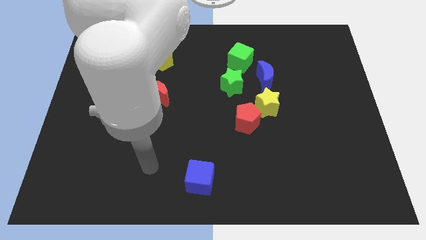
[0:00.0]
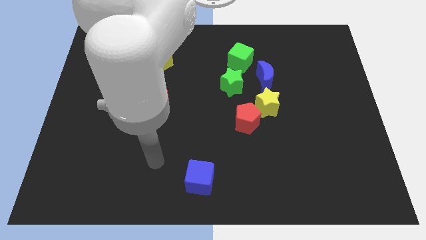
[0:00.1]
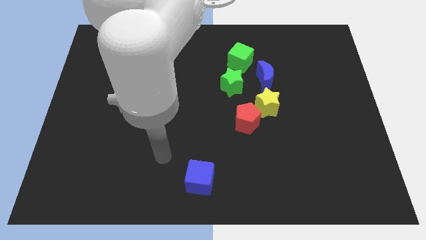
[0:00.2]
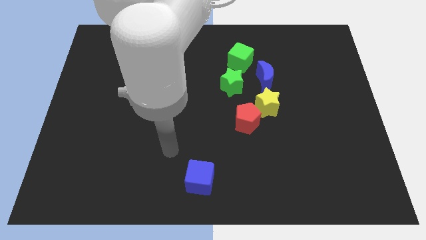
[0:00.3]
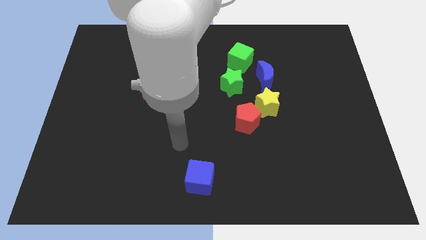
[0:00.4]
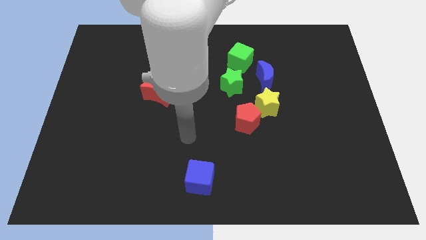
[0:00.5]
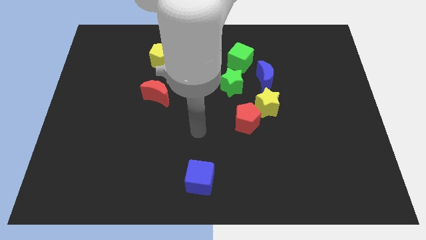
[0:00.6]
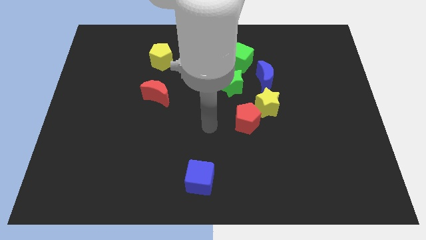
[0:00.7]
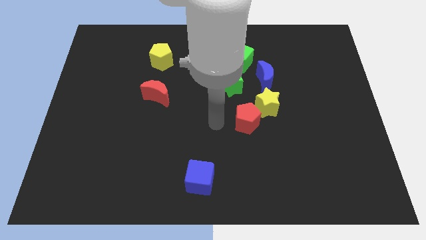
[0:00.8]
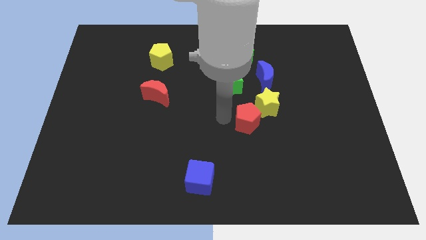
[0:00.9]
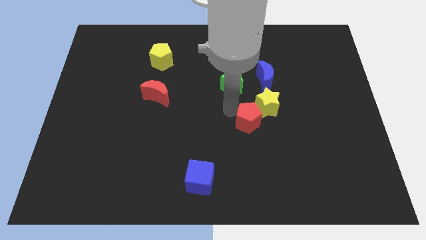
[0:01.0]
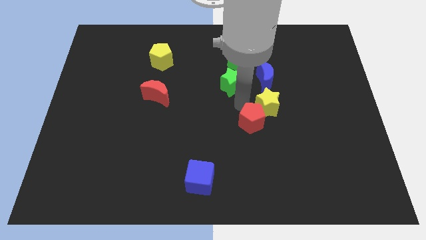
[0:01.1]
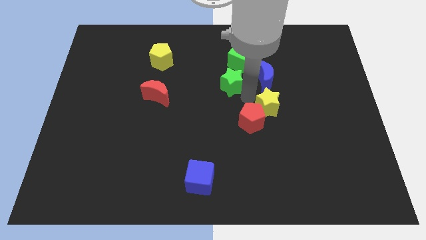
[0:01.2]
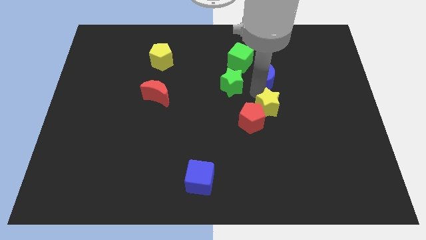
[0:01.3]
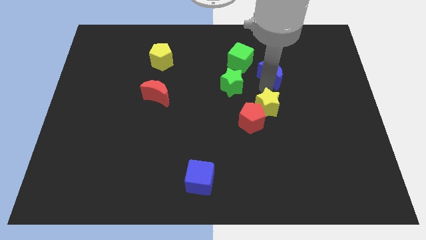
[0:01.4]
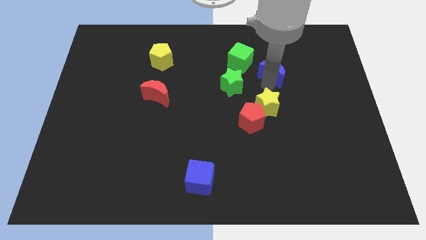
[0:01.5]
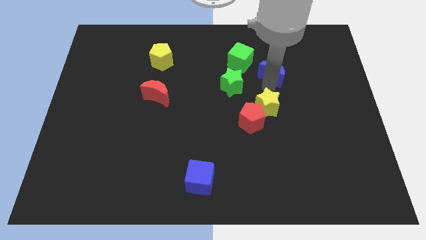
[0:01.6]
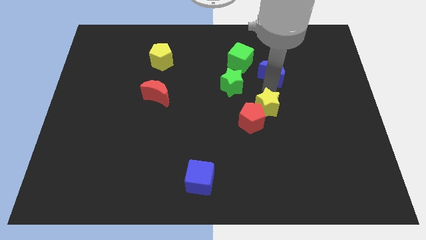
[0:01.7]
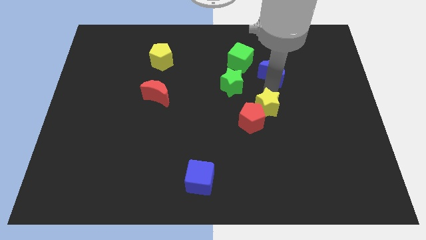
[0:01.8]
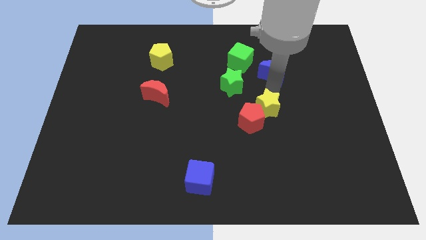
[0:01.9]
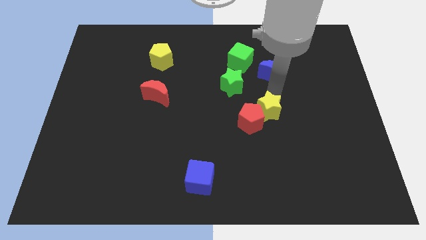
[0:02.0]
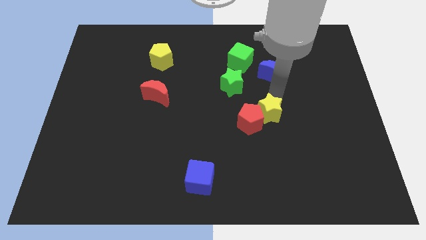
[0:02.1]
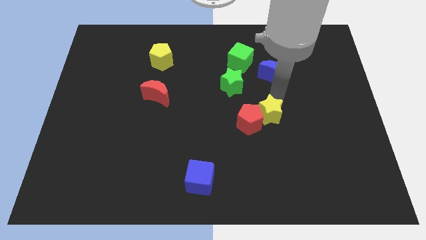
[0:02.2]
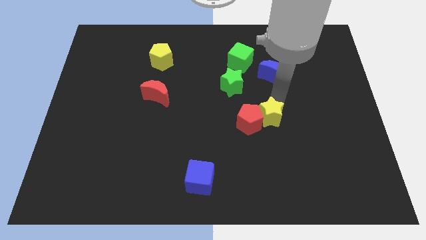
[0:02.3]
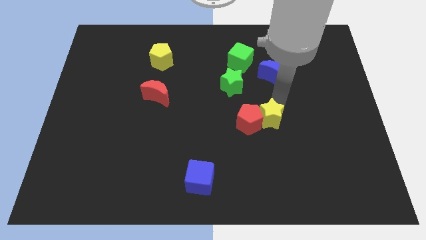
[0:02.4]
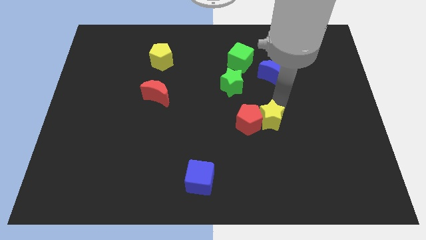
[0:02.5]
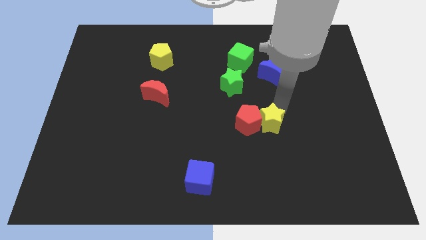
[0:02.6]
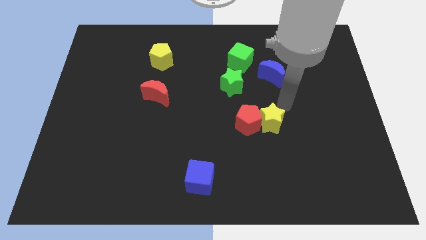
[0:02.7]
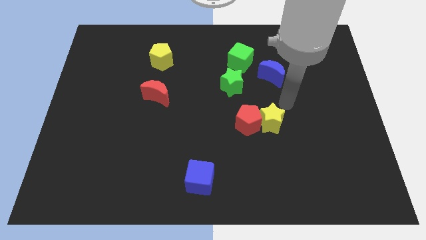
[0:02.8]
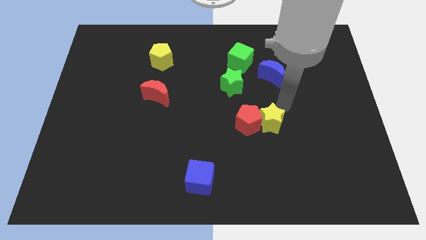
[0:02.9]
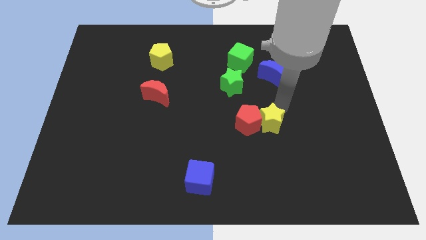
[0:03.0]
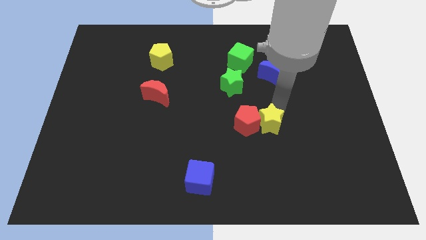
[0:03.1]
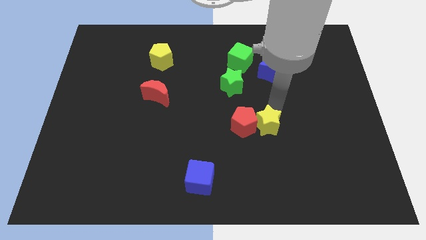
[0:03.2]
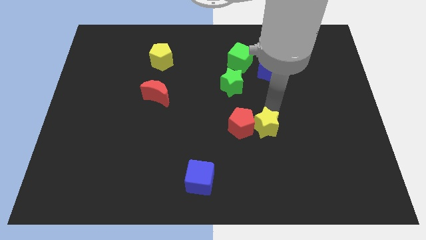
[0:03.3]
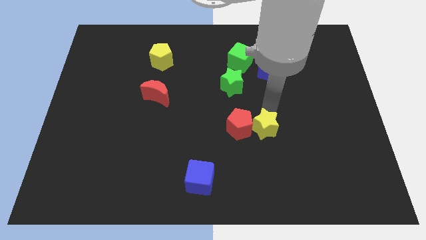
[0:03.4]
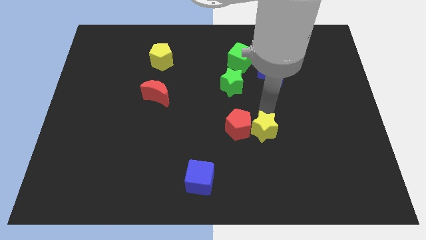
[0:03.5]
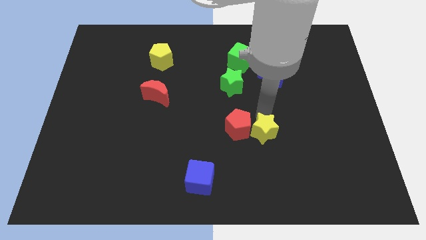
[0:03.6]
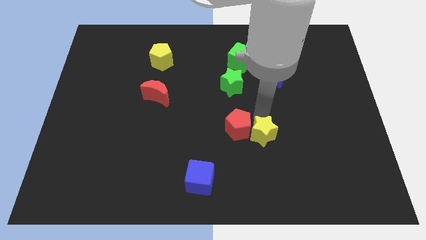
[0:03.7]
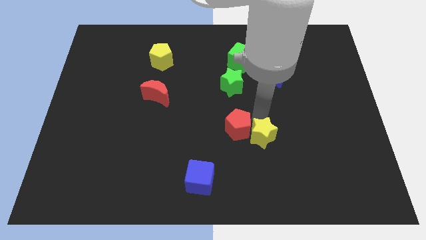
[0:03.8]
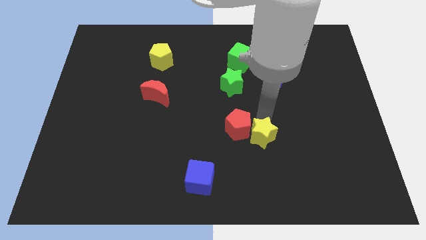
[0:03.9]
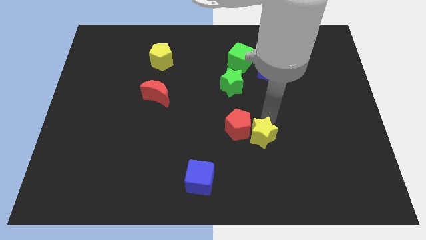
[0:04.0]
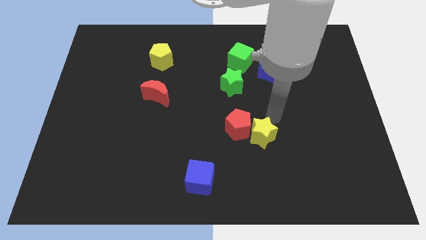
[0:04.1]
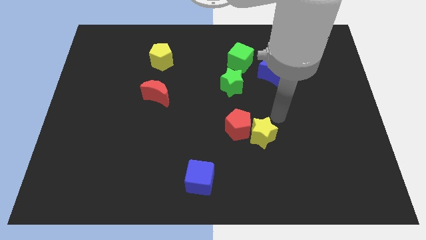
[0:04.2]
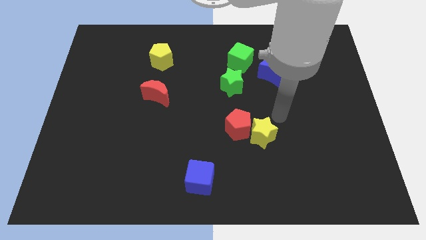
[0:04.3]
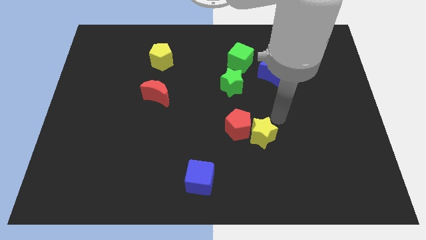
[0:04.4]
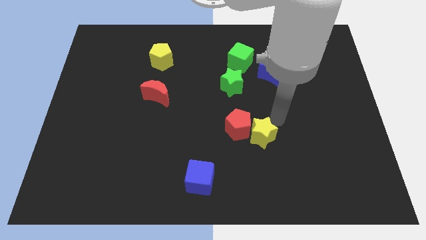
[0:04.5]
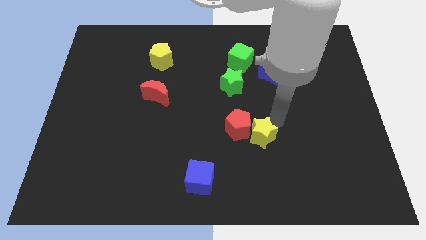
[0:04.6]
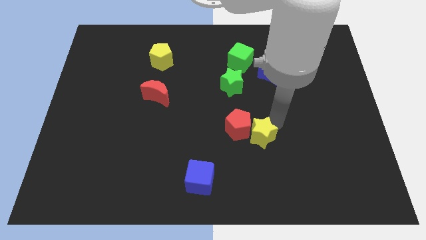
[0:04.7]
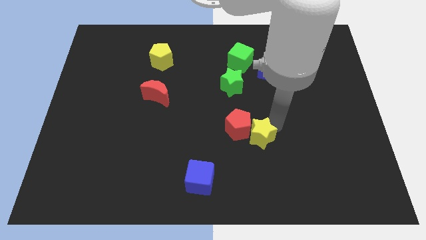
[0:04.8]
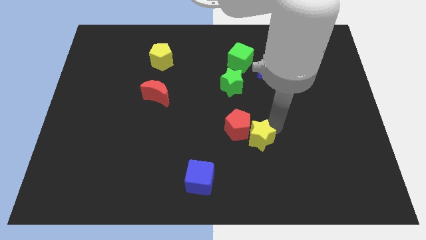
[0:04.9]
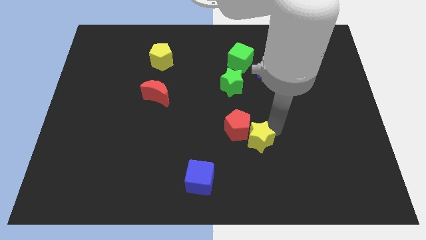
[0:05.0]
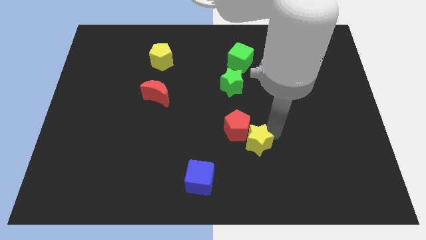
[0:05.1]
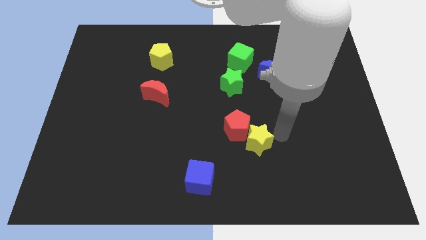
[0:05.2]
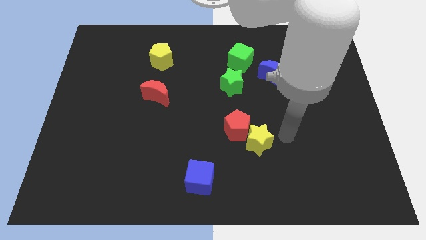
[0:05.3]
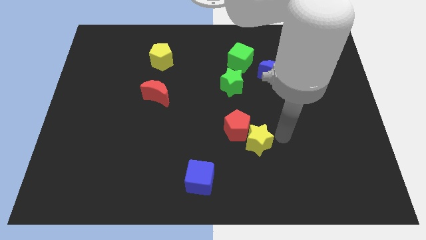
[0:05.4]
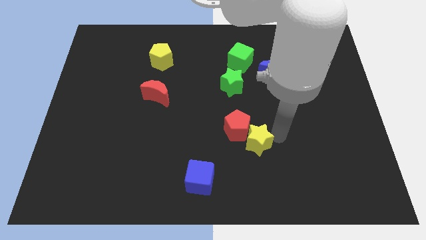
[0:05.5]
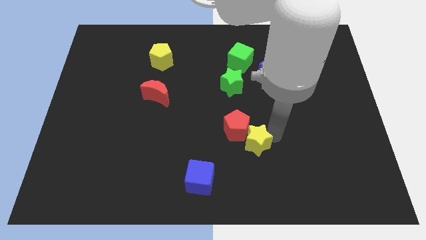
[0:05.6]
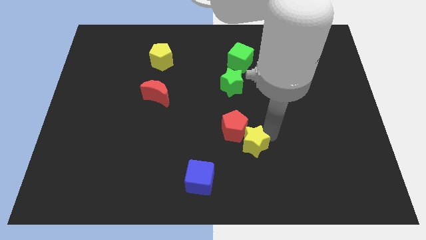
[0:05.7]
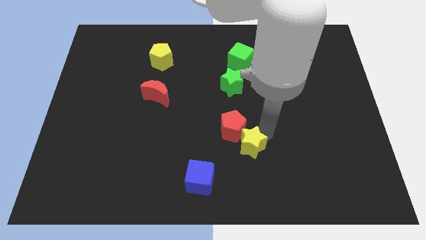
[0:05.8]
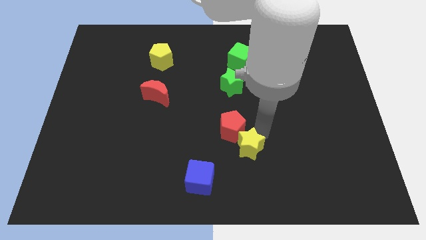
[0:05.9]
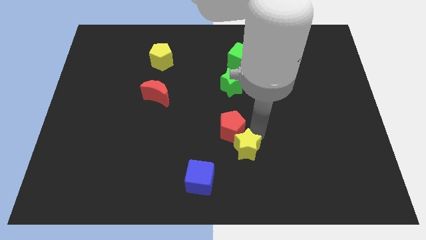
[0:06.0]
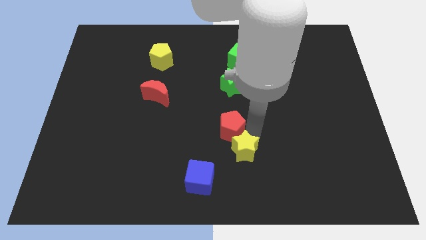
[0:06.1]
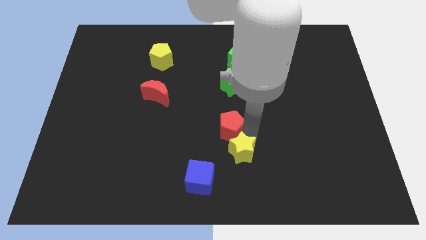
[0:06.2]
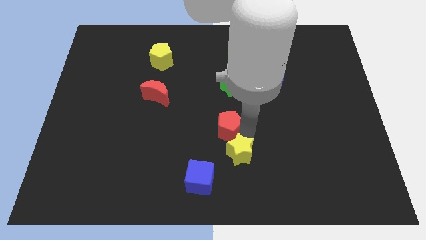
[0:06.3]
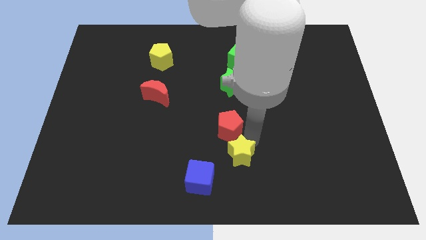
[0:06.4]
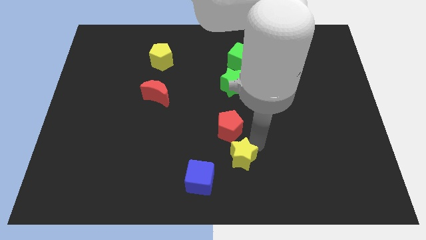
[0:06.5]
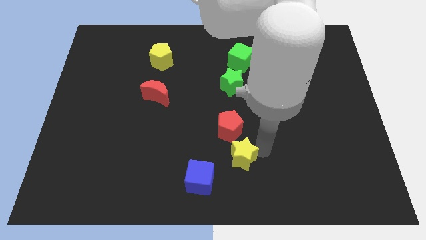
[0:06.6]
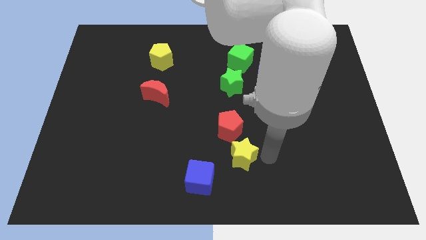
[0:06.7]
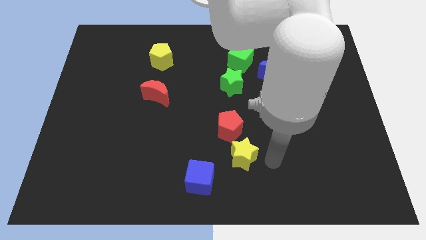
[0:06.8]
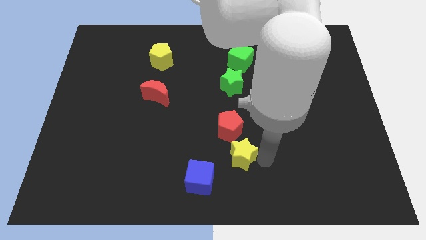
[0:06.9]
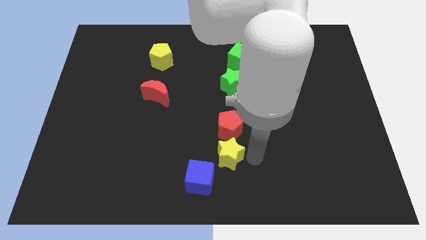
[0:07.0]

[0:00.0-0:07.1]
slide the yellow star diagonally down and to the left of the red pentagon

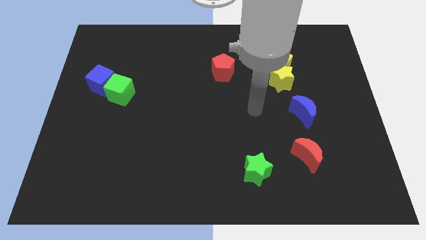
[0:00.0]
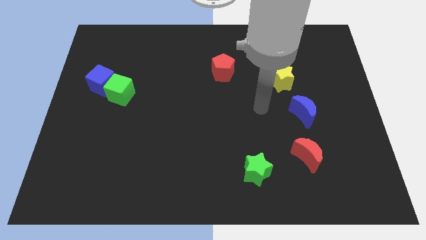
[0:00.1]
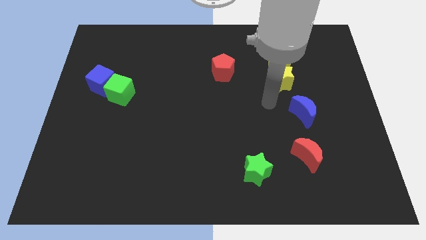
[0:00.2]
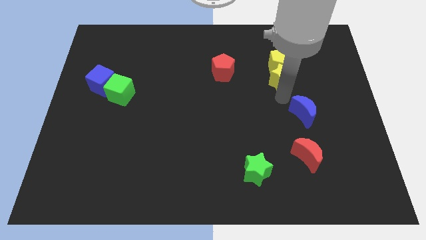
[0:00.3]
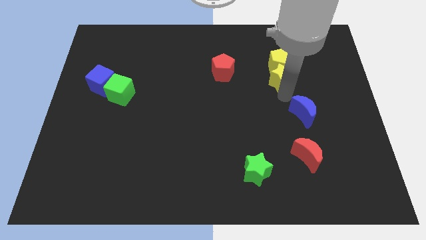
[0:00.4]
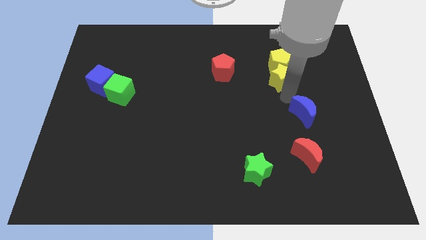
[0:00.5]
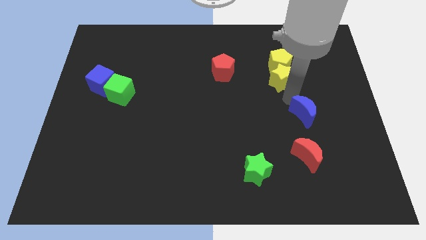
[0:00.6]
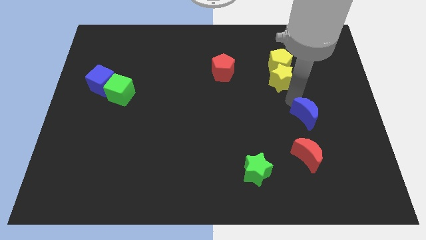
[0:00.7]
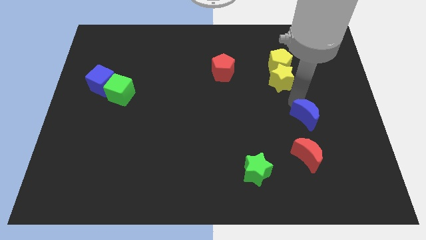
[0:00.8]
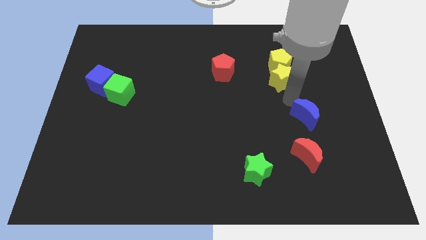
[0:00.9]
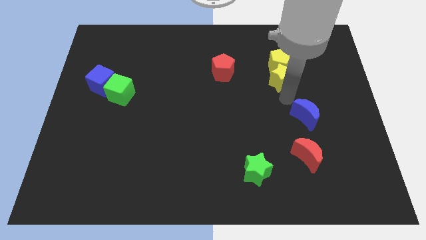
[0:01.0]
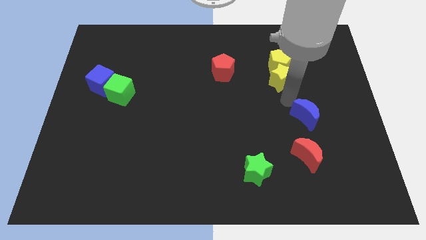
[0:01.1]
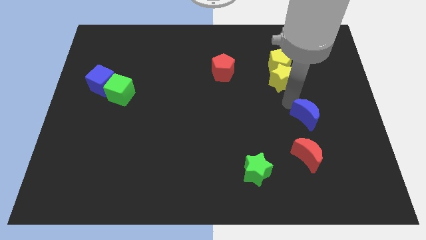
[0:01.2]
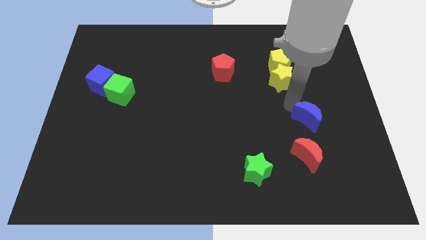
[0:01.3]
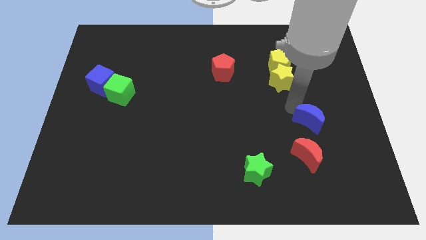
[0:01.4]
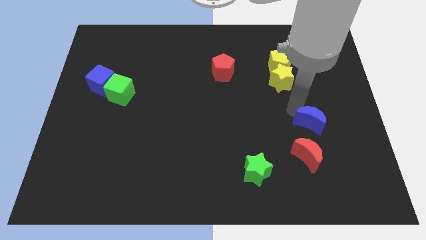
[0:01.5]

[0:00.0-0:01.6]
slide the blue moon diagonally up and to the right of the red moon
